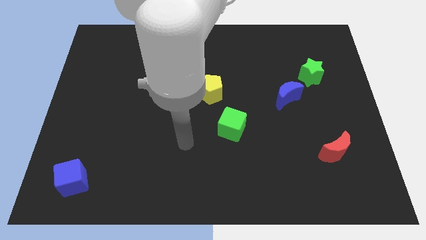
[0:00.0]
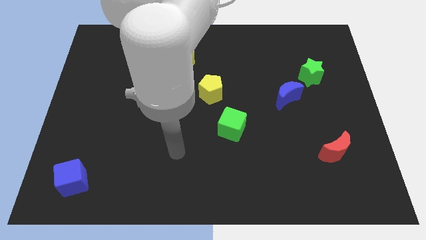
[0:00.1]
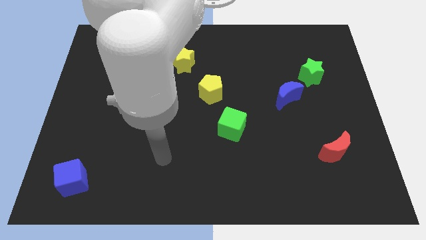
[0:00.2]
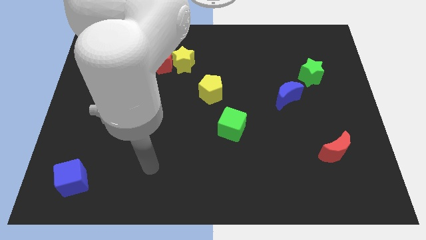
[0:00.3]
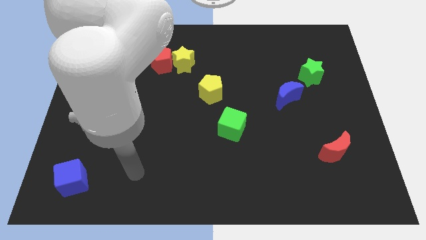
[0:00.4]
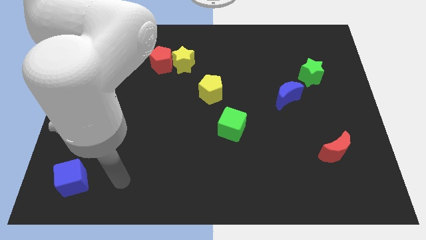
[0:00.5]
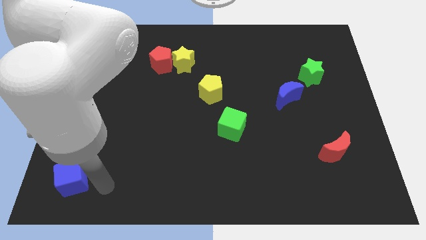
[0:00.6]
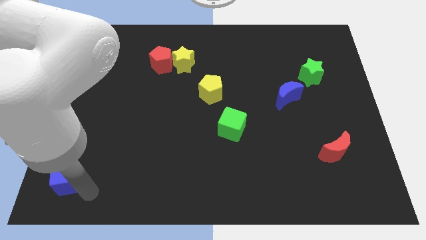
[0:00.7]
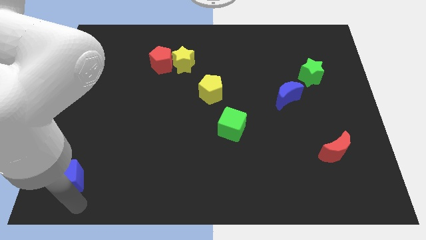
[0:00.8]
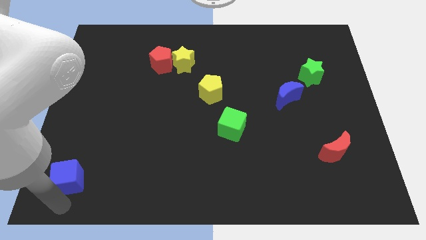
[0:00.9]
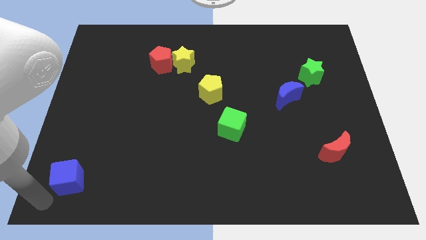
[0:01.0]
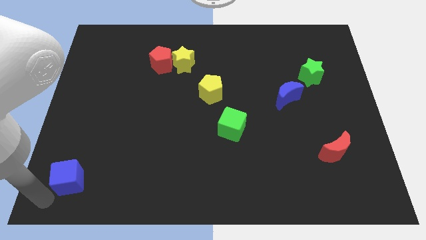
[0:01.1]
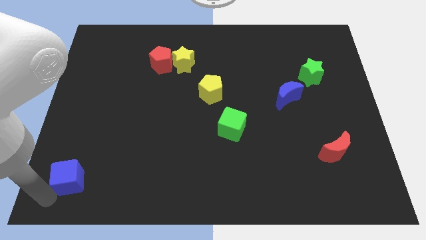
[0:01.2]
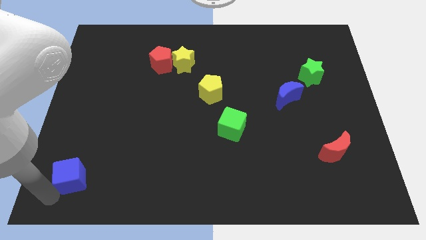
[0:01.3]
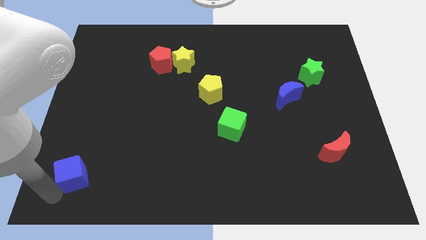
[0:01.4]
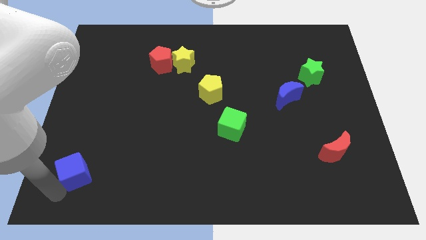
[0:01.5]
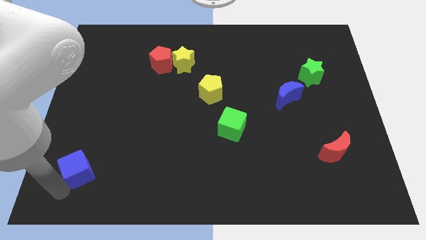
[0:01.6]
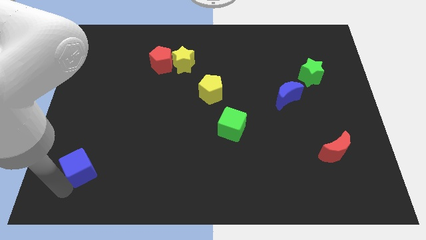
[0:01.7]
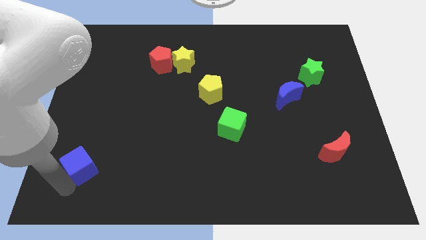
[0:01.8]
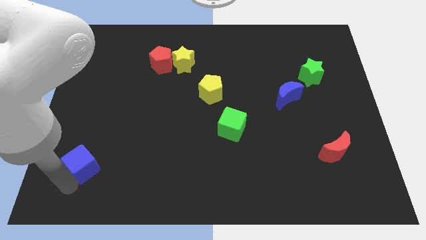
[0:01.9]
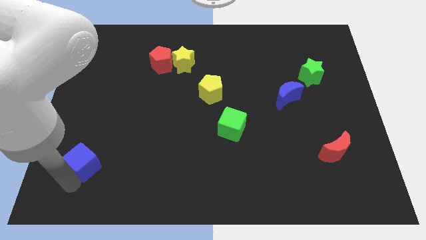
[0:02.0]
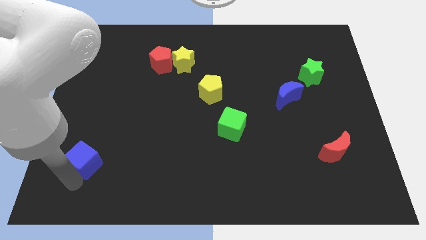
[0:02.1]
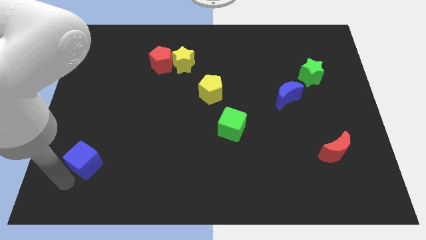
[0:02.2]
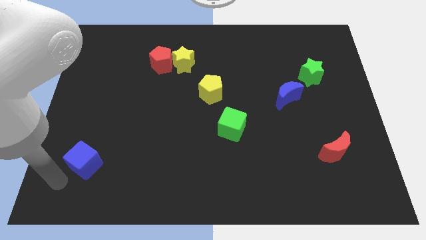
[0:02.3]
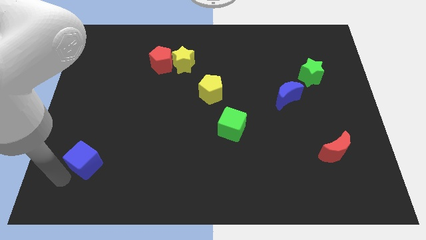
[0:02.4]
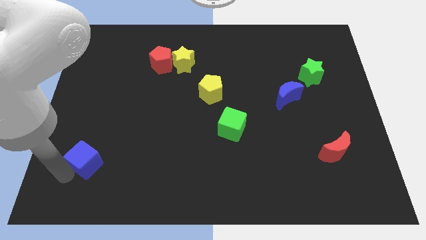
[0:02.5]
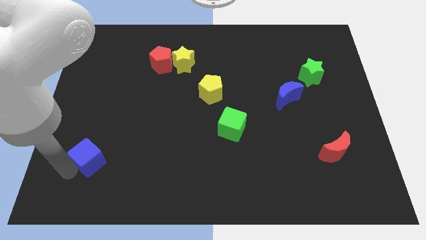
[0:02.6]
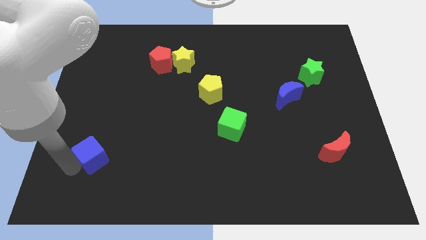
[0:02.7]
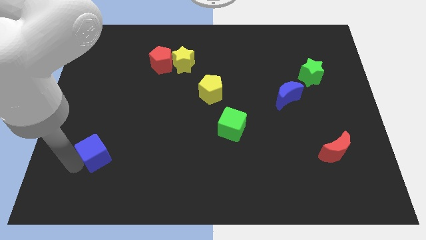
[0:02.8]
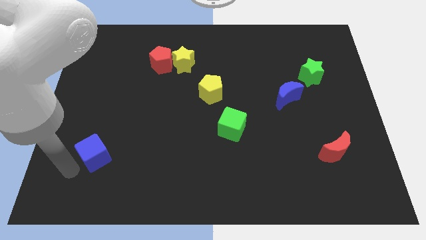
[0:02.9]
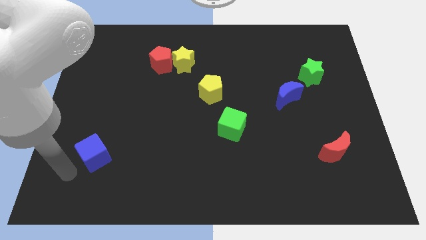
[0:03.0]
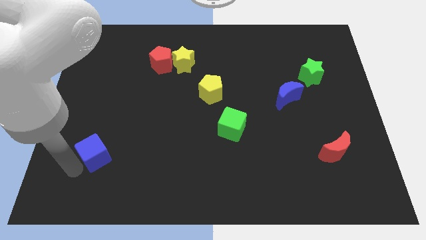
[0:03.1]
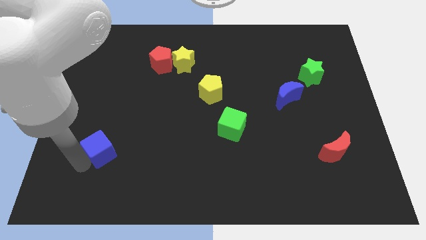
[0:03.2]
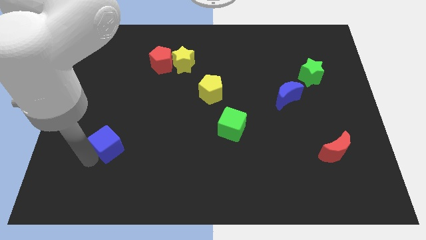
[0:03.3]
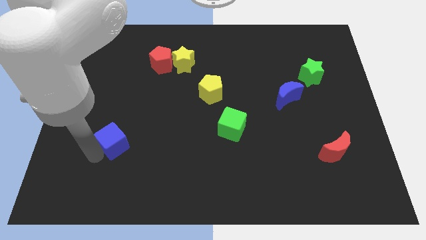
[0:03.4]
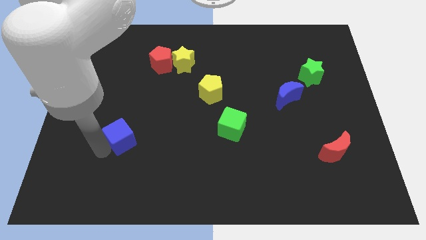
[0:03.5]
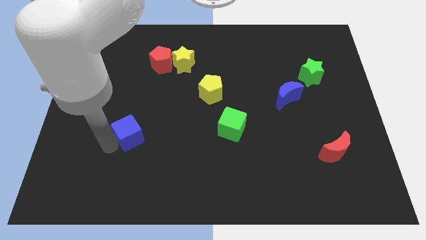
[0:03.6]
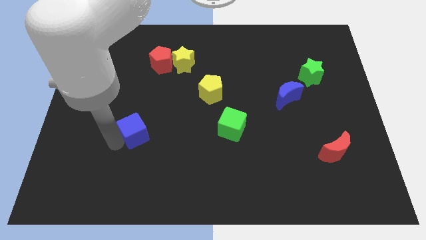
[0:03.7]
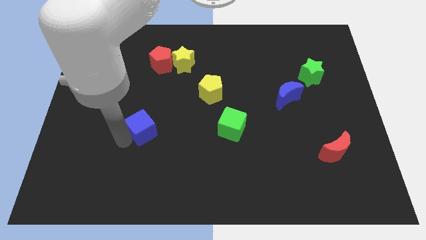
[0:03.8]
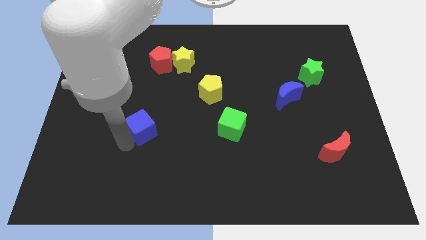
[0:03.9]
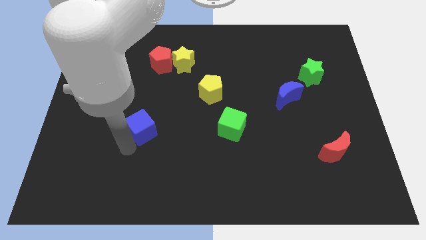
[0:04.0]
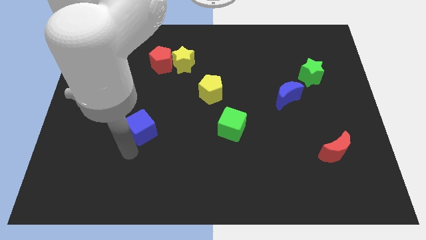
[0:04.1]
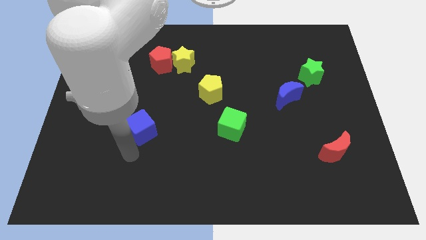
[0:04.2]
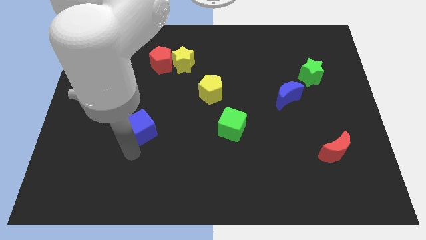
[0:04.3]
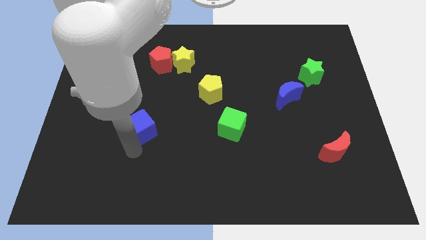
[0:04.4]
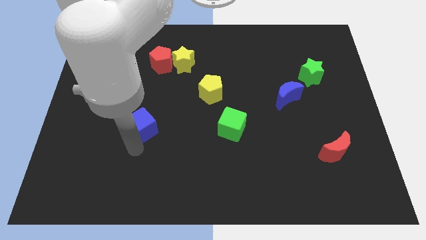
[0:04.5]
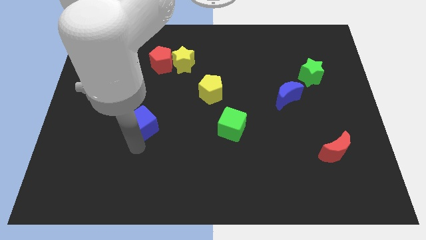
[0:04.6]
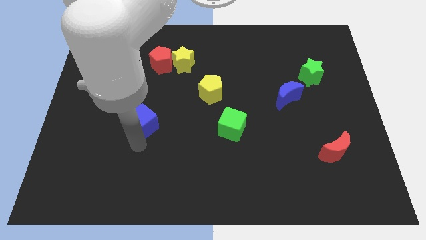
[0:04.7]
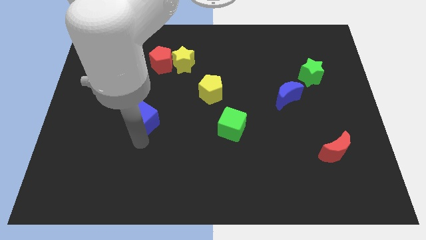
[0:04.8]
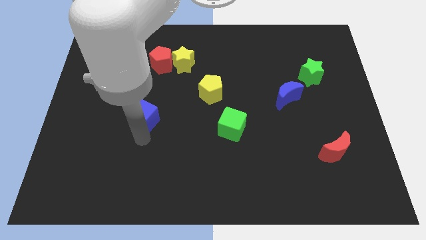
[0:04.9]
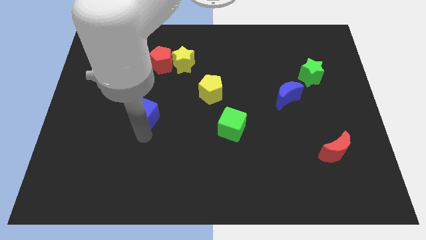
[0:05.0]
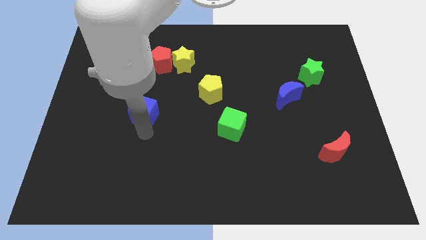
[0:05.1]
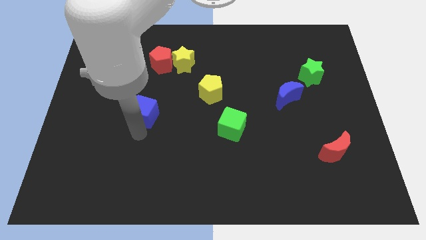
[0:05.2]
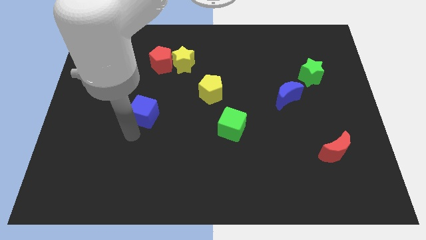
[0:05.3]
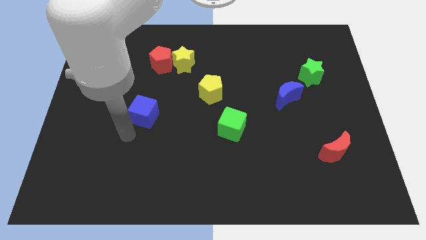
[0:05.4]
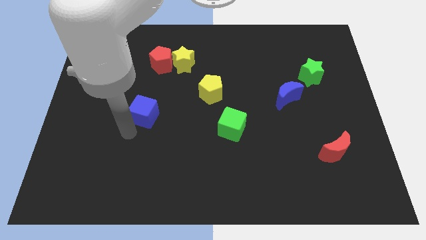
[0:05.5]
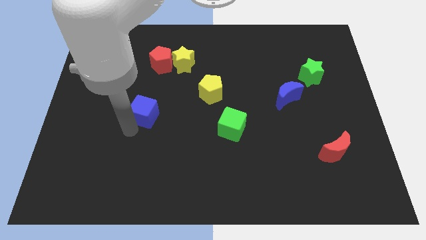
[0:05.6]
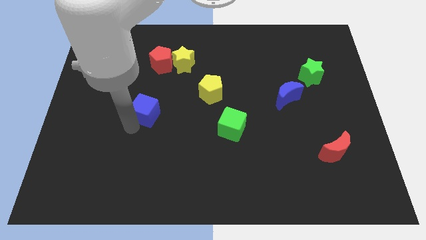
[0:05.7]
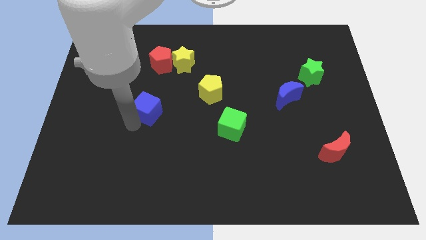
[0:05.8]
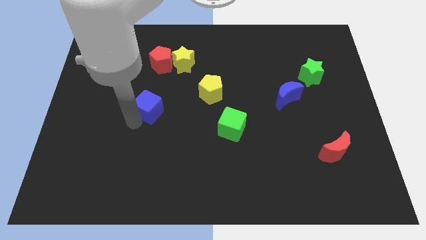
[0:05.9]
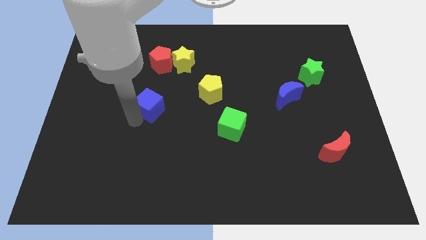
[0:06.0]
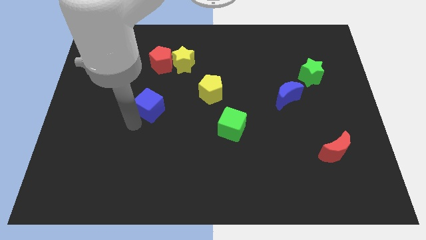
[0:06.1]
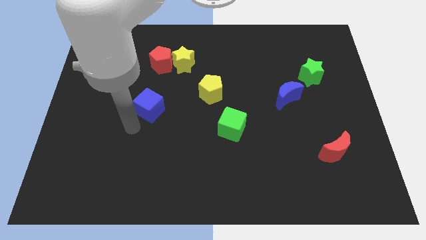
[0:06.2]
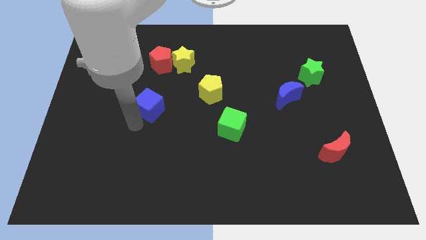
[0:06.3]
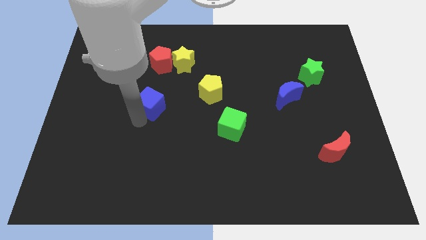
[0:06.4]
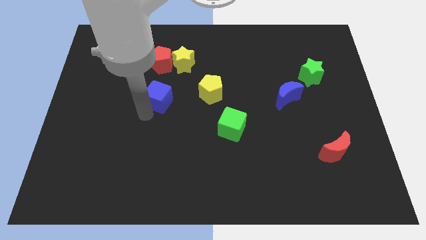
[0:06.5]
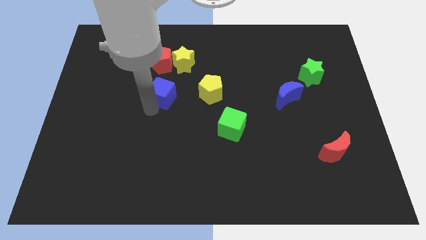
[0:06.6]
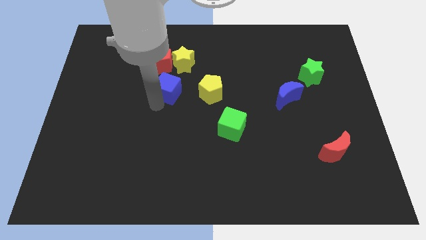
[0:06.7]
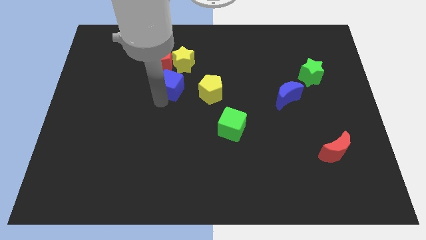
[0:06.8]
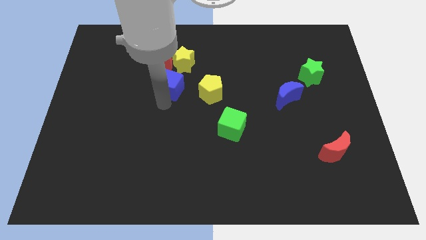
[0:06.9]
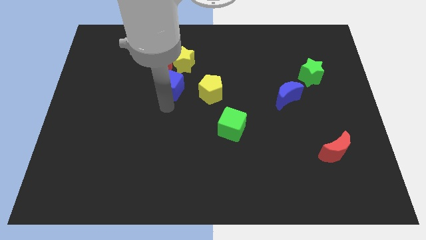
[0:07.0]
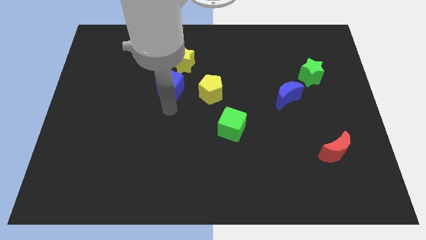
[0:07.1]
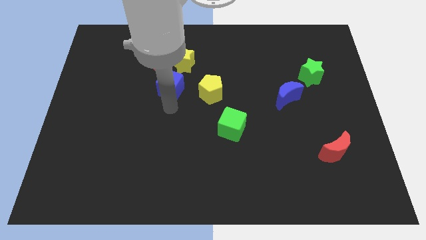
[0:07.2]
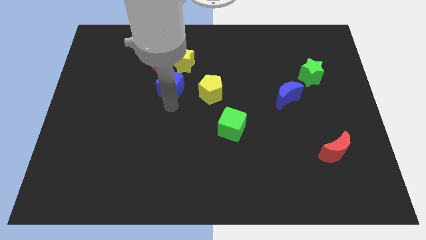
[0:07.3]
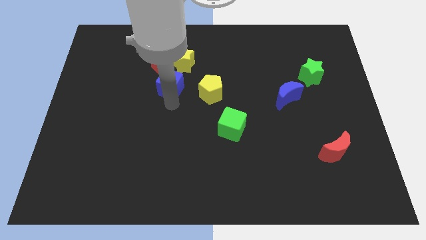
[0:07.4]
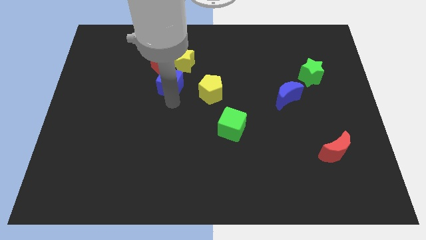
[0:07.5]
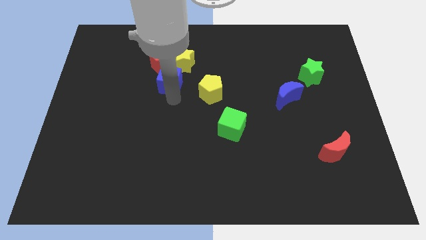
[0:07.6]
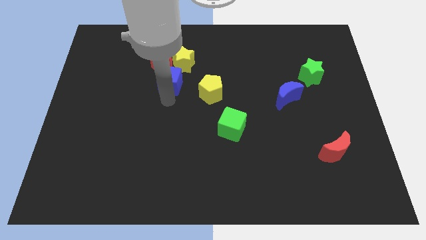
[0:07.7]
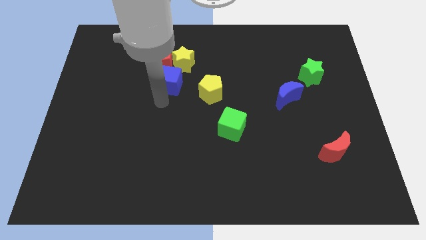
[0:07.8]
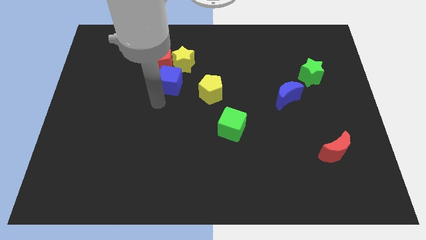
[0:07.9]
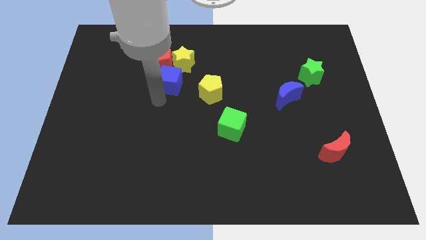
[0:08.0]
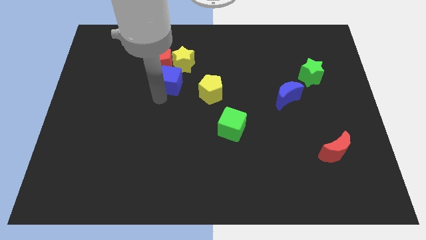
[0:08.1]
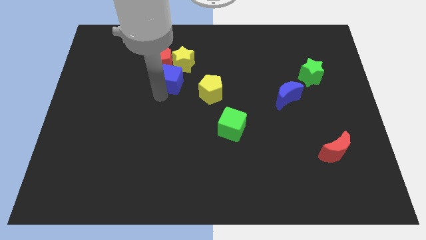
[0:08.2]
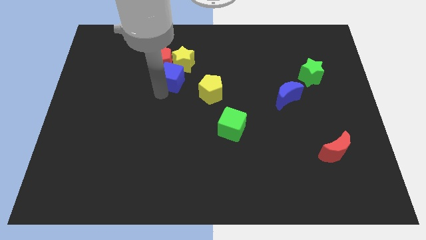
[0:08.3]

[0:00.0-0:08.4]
move the blue cube close to the yellow star
